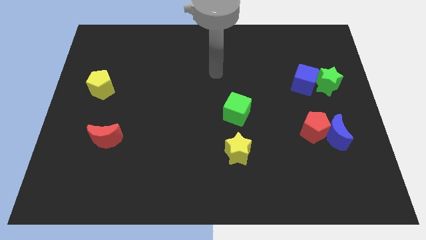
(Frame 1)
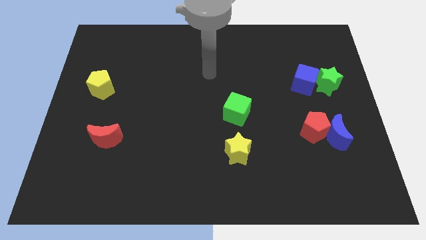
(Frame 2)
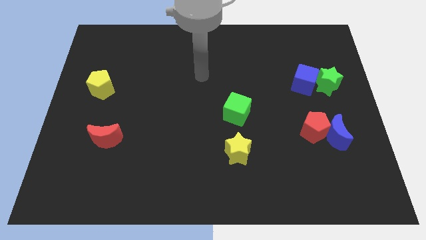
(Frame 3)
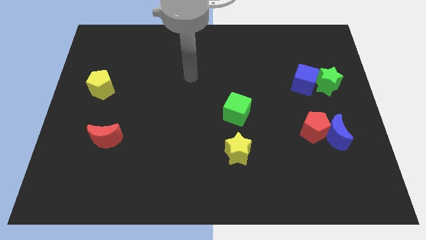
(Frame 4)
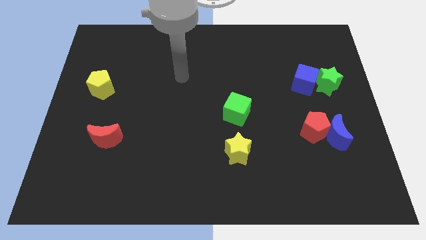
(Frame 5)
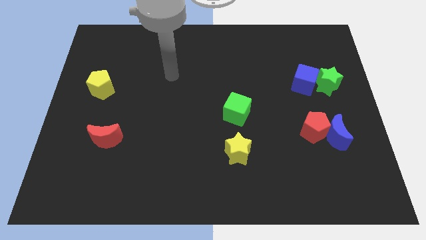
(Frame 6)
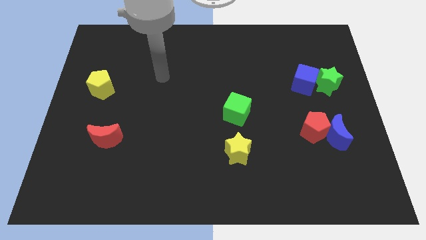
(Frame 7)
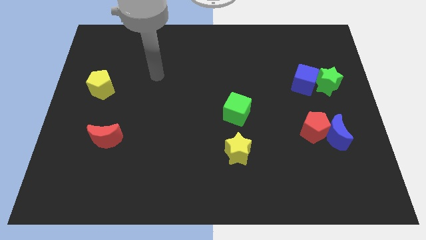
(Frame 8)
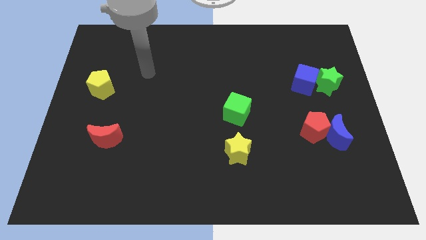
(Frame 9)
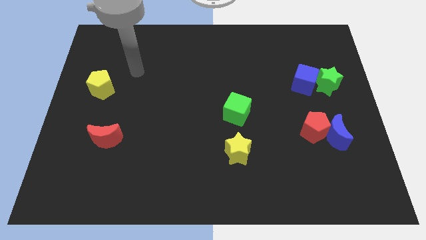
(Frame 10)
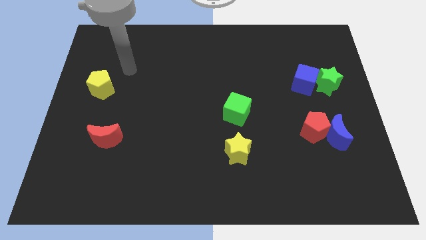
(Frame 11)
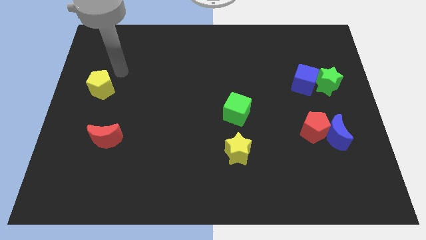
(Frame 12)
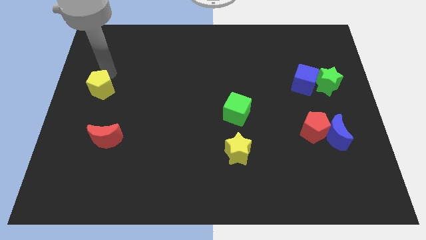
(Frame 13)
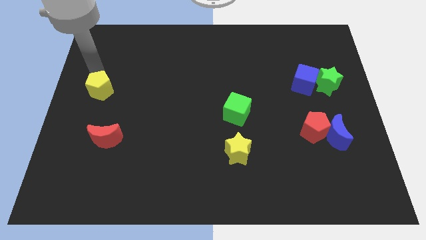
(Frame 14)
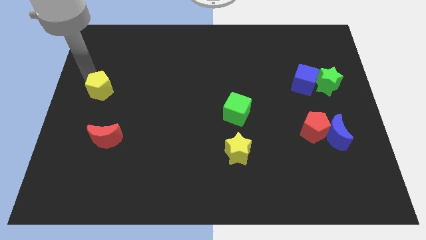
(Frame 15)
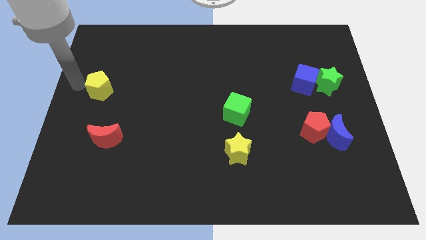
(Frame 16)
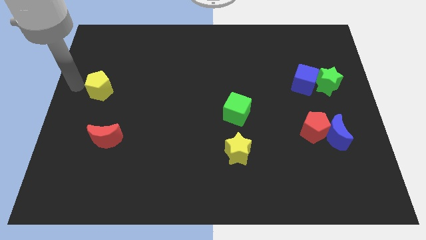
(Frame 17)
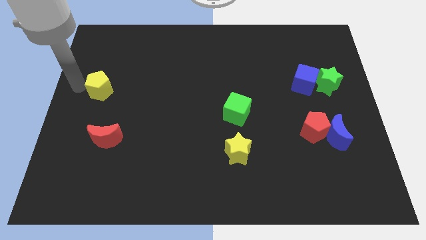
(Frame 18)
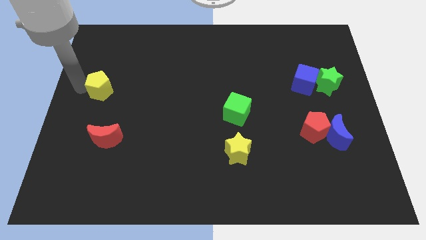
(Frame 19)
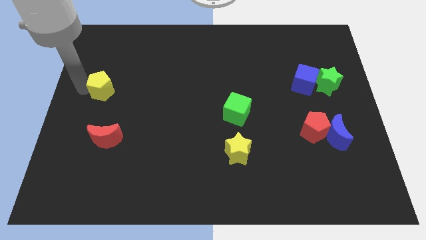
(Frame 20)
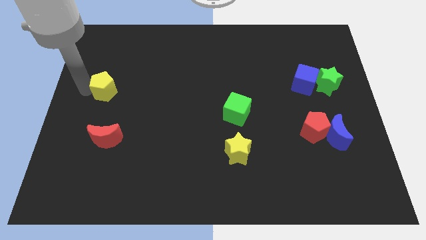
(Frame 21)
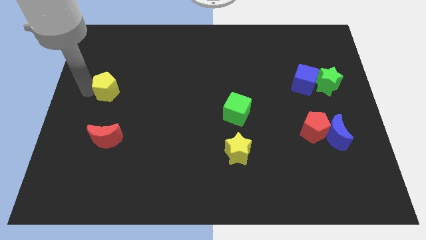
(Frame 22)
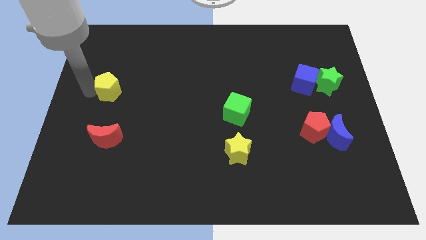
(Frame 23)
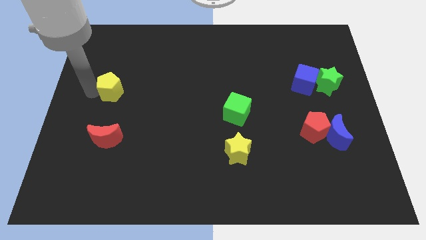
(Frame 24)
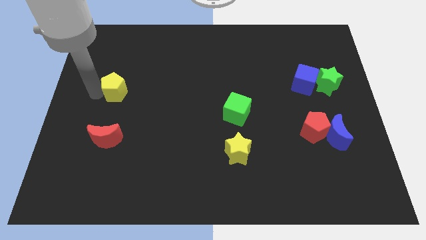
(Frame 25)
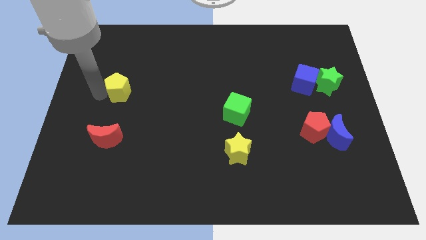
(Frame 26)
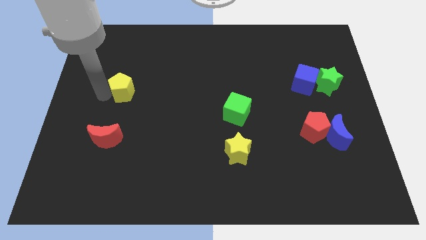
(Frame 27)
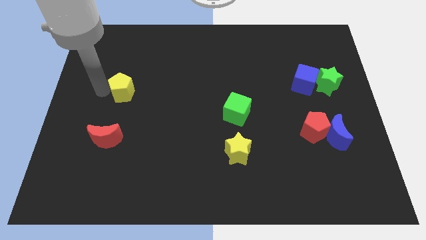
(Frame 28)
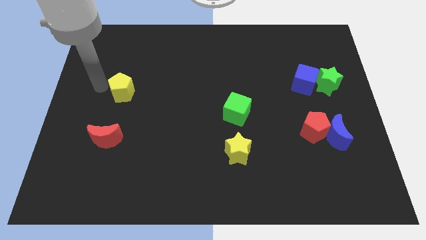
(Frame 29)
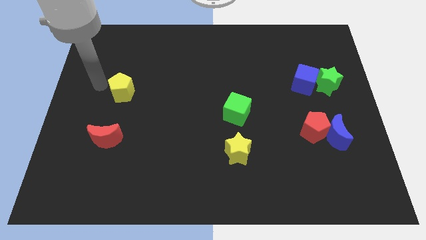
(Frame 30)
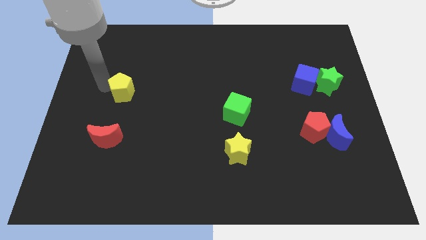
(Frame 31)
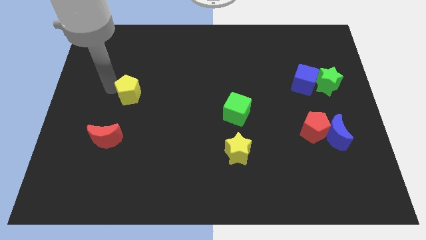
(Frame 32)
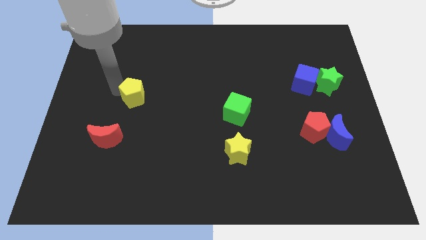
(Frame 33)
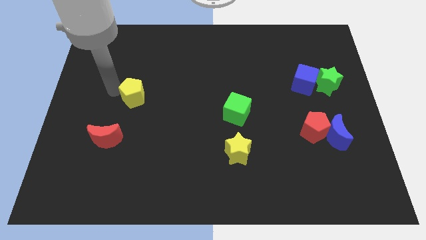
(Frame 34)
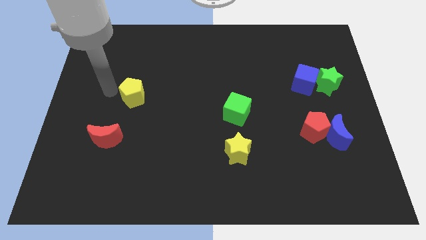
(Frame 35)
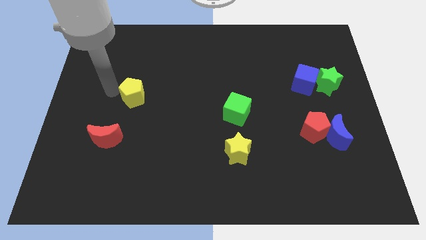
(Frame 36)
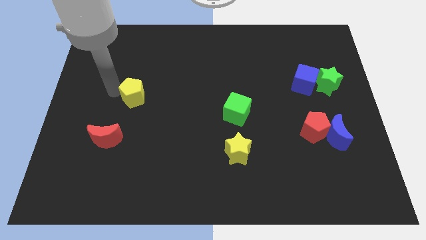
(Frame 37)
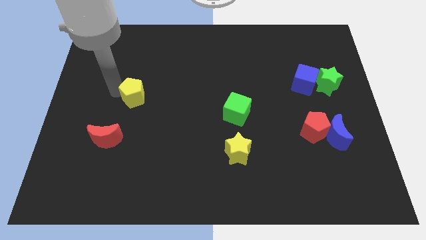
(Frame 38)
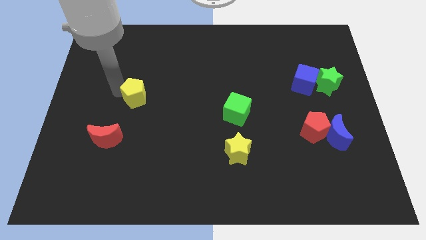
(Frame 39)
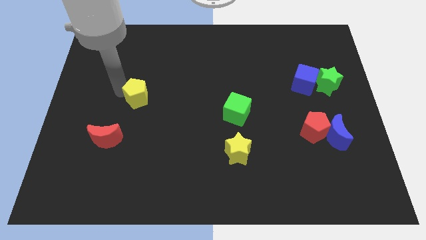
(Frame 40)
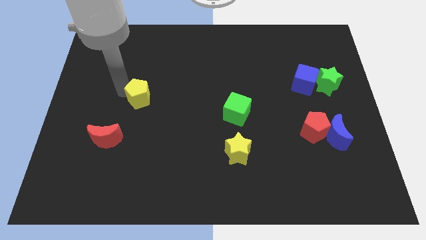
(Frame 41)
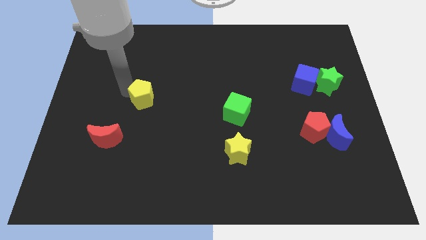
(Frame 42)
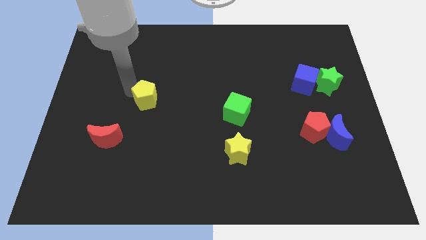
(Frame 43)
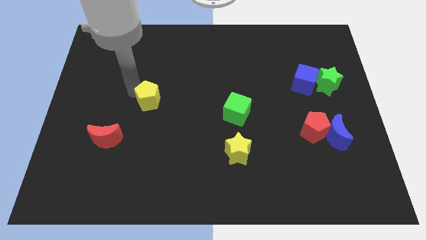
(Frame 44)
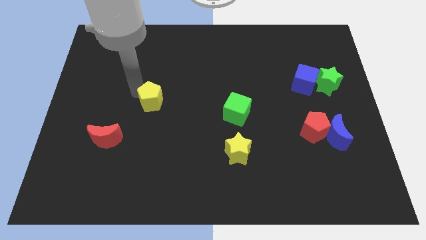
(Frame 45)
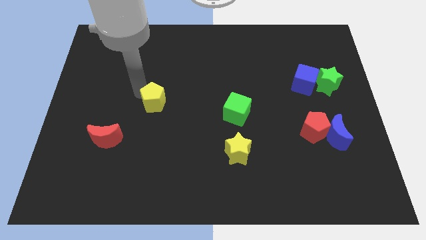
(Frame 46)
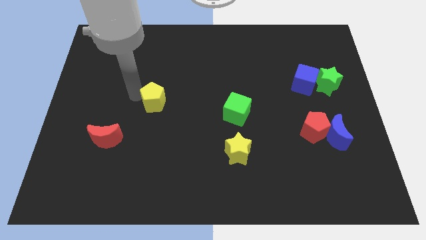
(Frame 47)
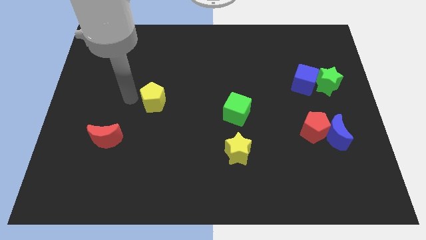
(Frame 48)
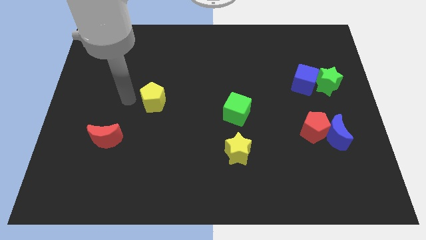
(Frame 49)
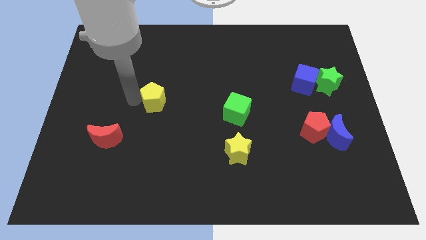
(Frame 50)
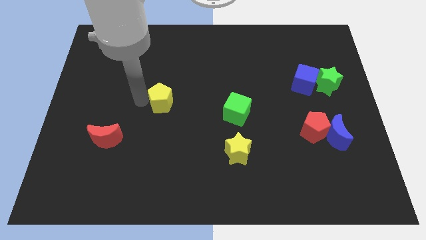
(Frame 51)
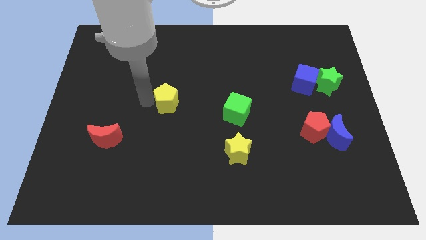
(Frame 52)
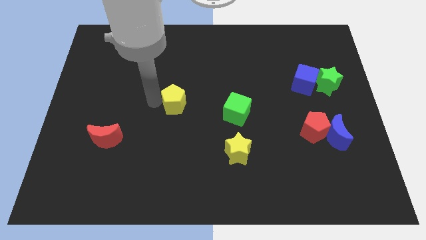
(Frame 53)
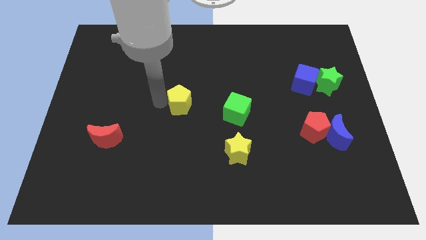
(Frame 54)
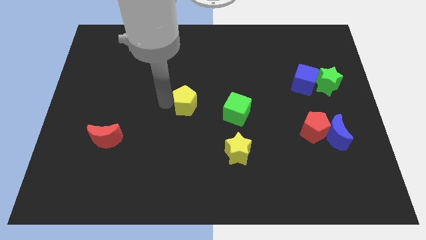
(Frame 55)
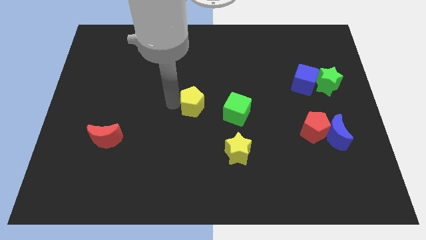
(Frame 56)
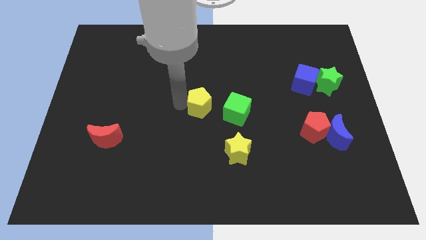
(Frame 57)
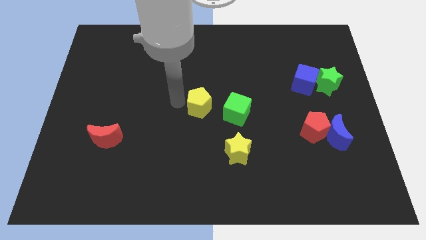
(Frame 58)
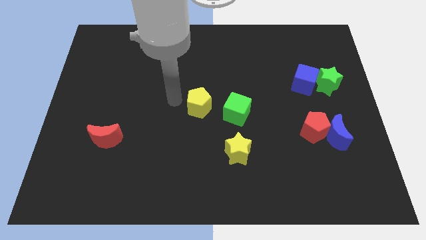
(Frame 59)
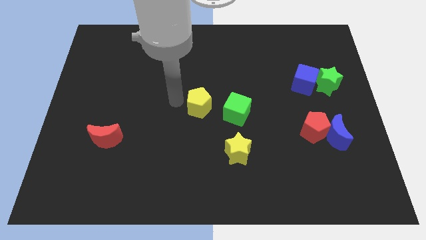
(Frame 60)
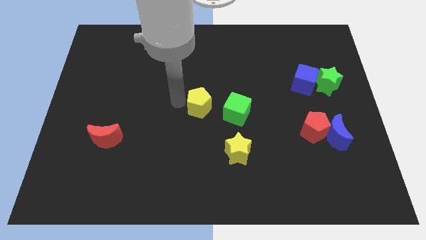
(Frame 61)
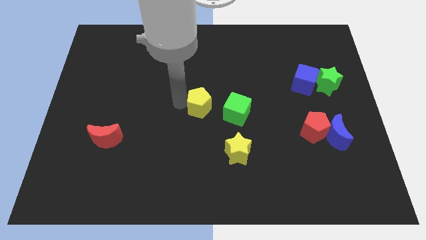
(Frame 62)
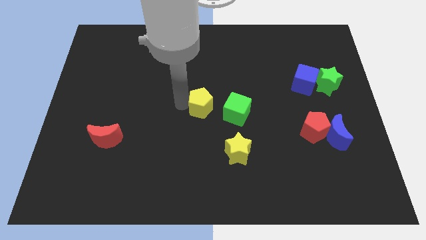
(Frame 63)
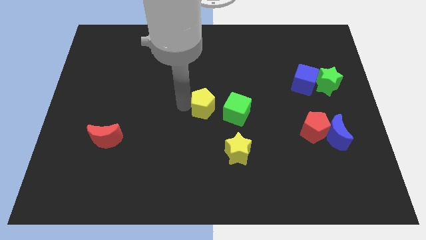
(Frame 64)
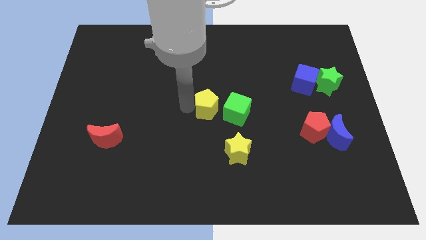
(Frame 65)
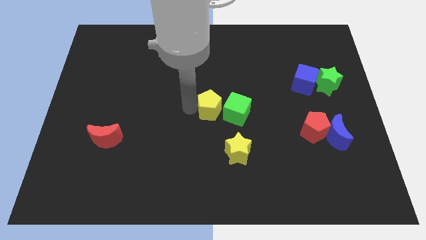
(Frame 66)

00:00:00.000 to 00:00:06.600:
push the yellow pentagon close to the green cube

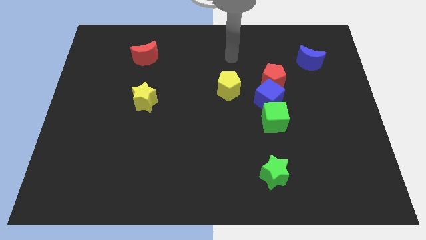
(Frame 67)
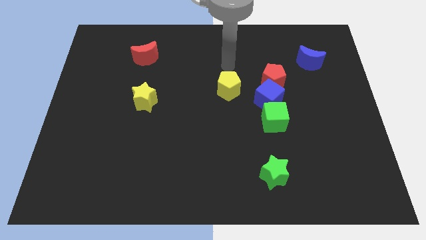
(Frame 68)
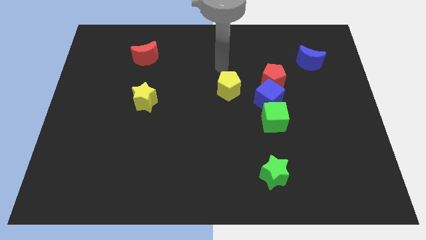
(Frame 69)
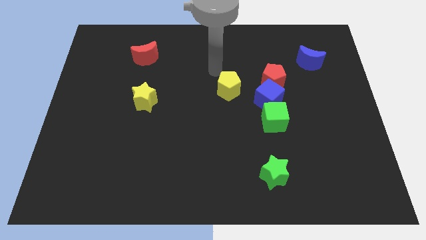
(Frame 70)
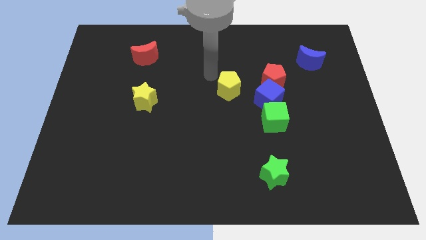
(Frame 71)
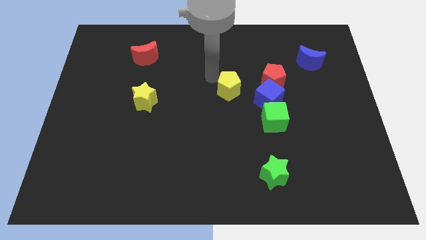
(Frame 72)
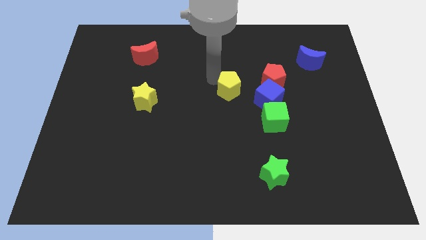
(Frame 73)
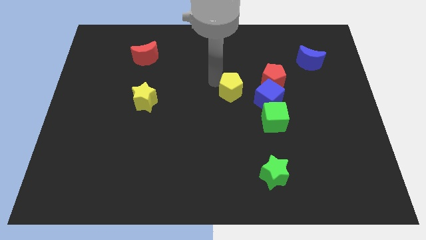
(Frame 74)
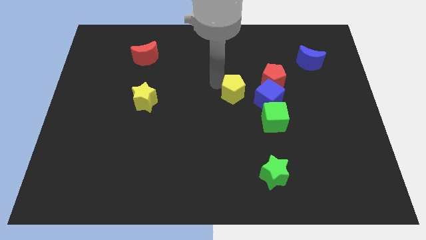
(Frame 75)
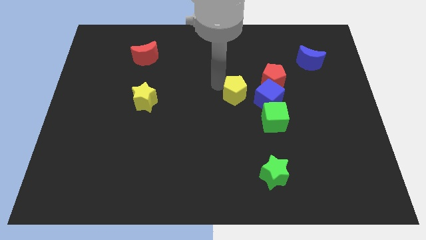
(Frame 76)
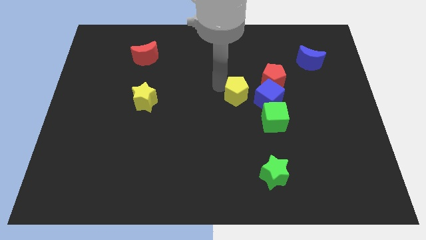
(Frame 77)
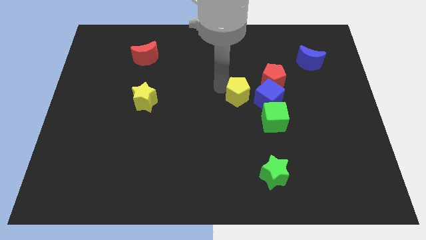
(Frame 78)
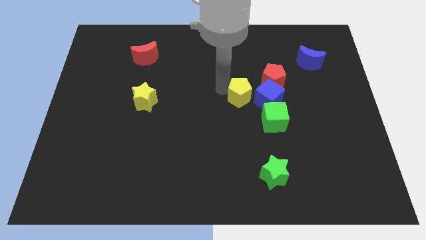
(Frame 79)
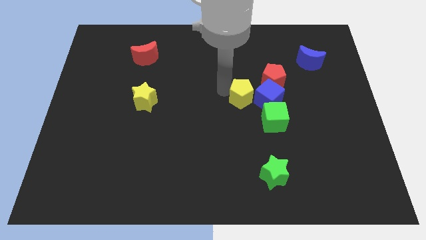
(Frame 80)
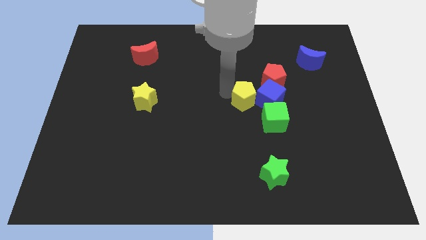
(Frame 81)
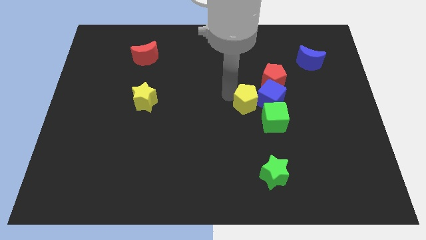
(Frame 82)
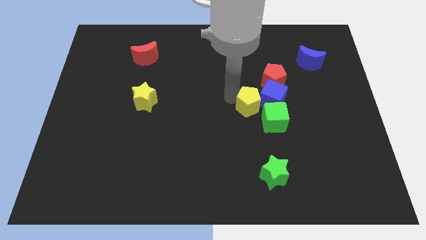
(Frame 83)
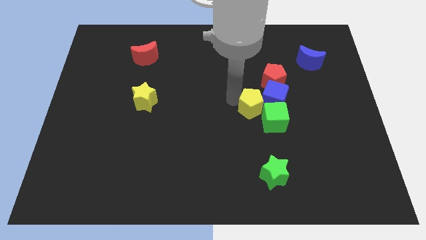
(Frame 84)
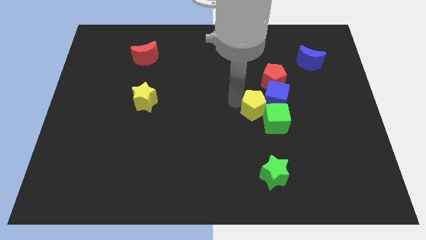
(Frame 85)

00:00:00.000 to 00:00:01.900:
slide the yellow pentagon to the green cube
